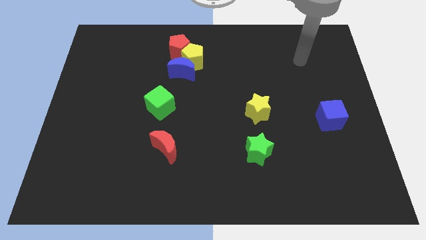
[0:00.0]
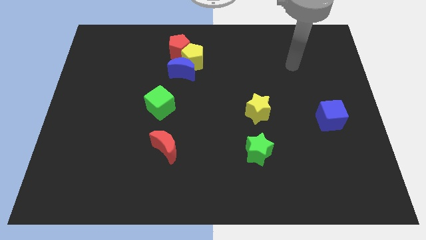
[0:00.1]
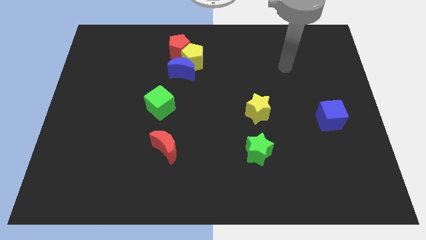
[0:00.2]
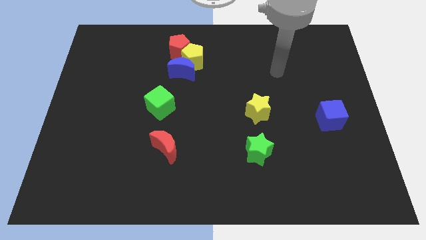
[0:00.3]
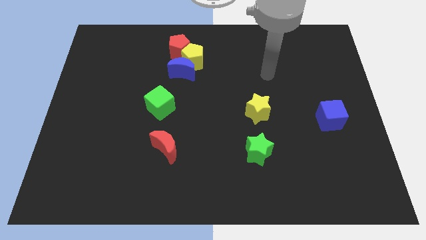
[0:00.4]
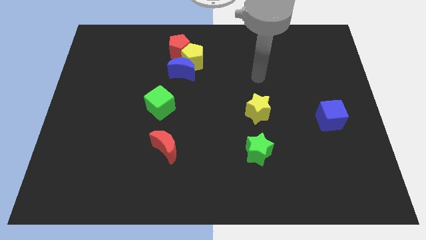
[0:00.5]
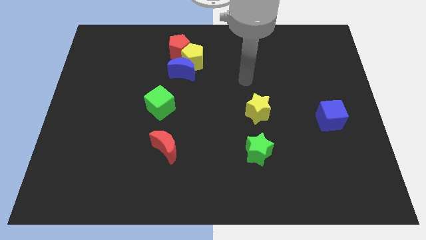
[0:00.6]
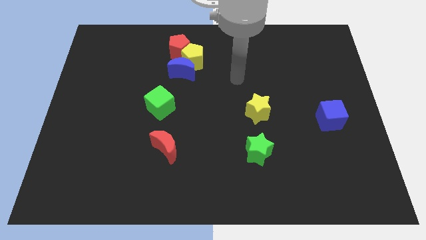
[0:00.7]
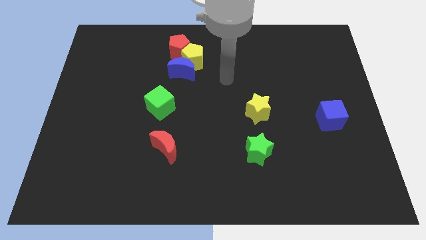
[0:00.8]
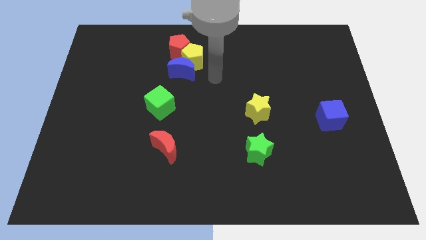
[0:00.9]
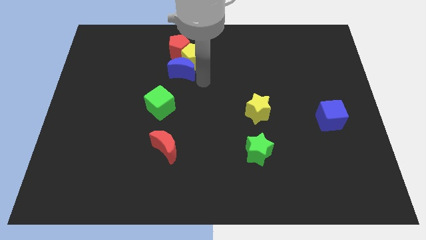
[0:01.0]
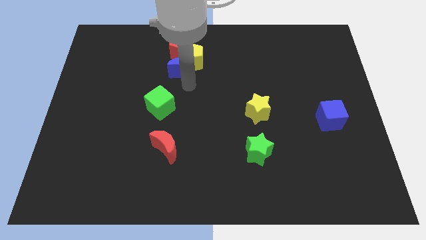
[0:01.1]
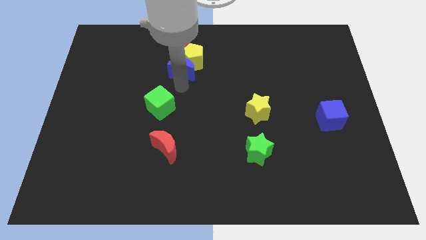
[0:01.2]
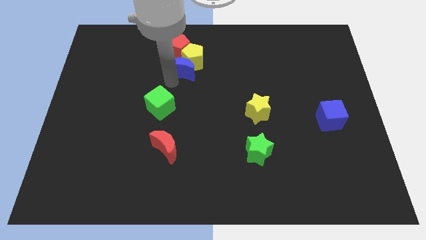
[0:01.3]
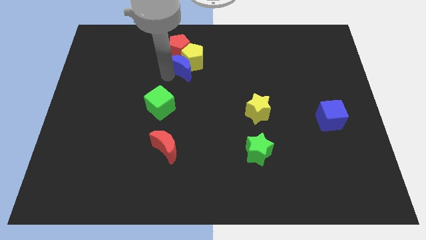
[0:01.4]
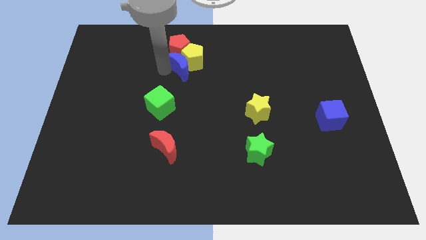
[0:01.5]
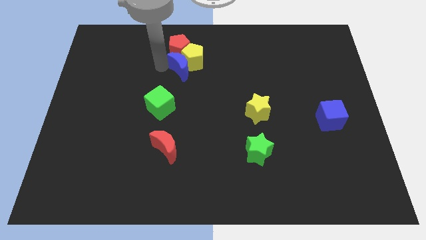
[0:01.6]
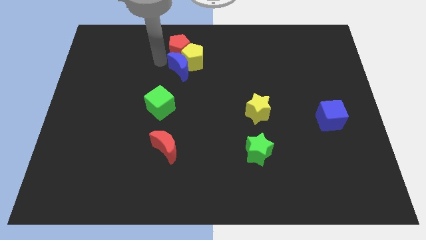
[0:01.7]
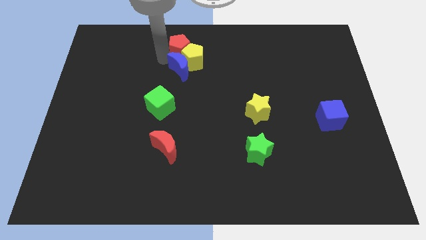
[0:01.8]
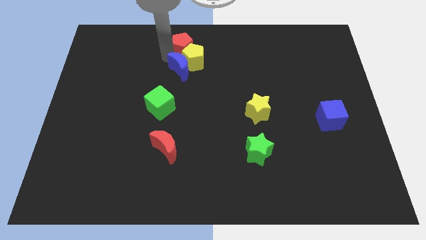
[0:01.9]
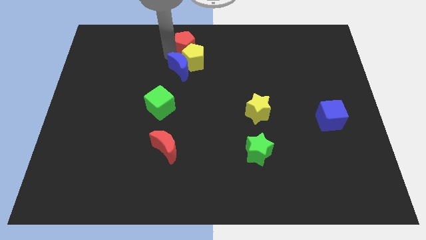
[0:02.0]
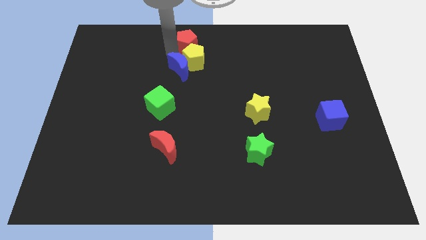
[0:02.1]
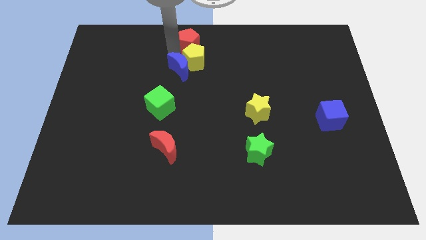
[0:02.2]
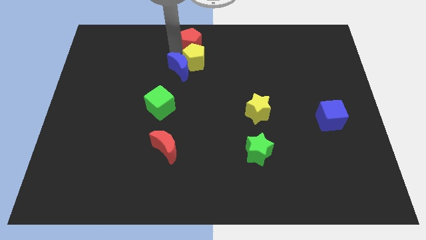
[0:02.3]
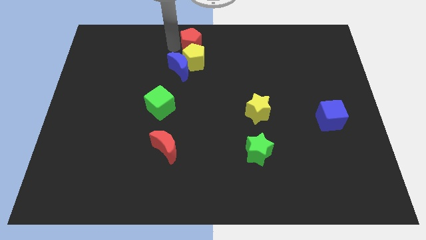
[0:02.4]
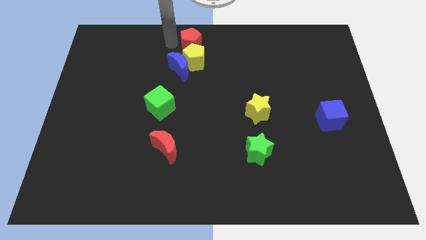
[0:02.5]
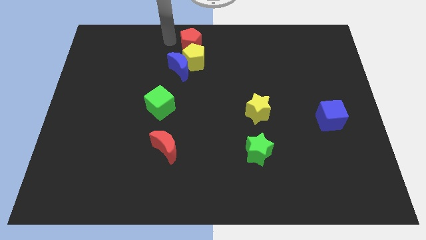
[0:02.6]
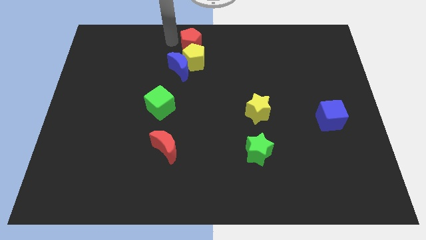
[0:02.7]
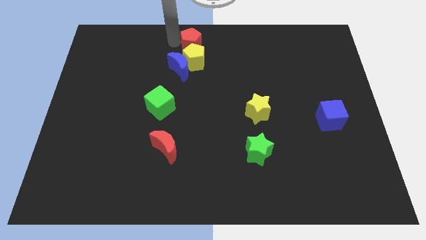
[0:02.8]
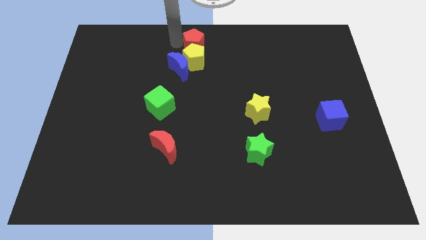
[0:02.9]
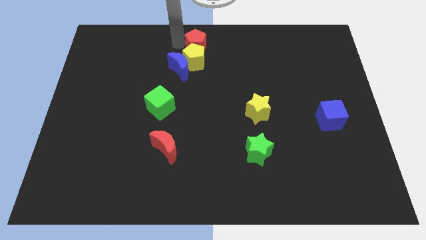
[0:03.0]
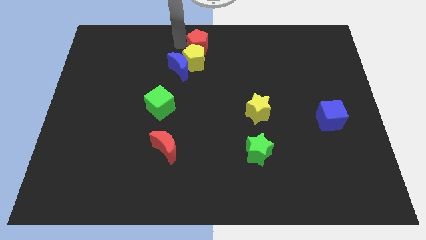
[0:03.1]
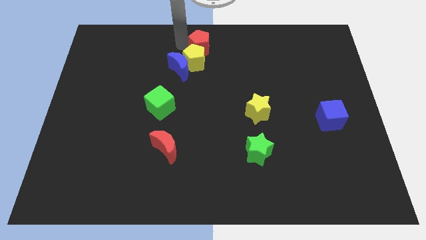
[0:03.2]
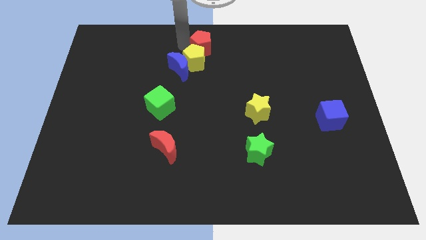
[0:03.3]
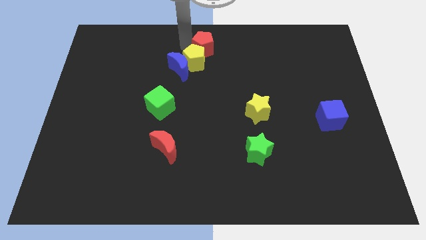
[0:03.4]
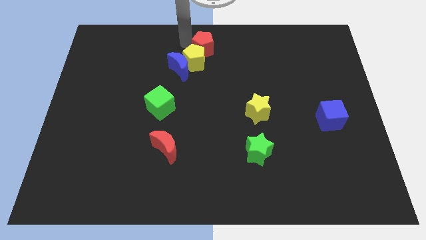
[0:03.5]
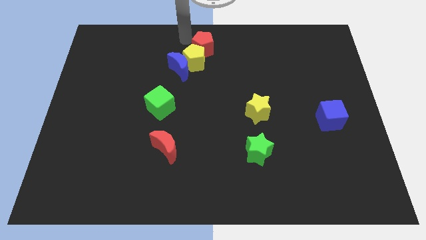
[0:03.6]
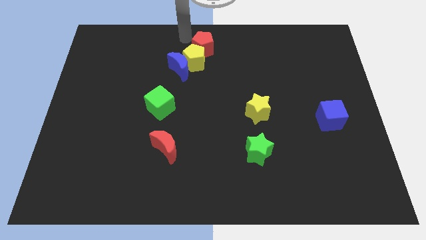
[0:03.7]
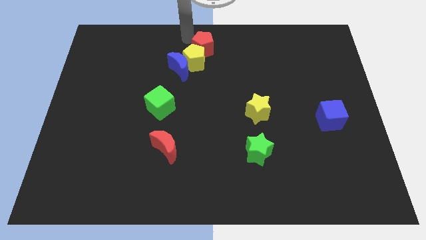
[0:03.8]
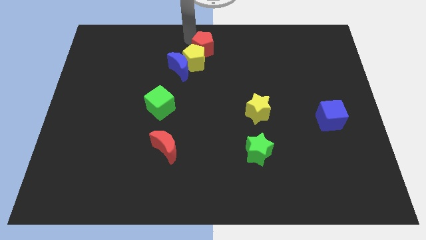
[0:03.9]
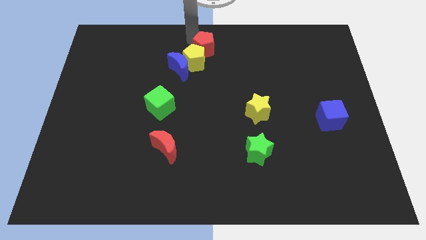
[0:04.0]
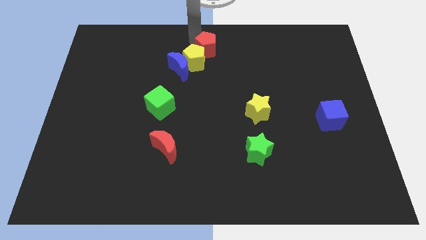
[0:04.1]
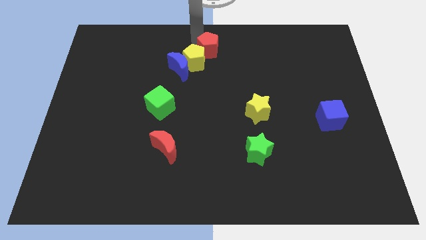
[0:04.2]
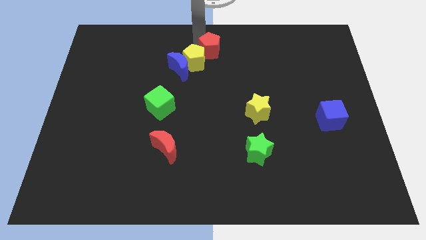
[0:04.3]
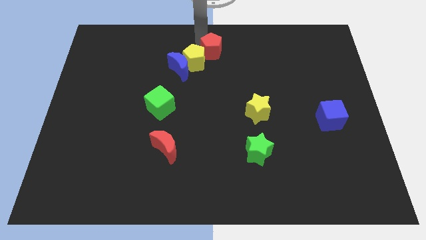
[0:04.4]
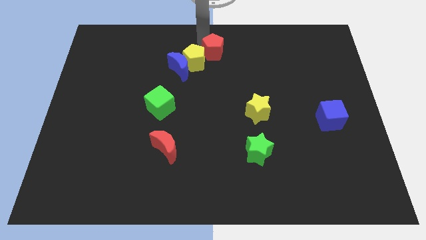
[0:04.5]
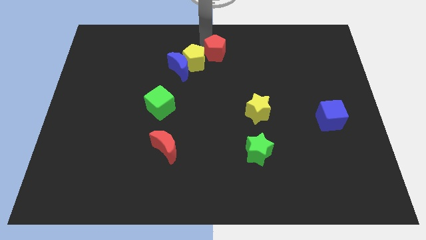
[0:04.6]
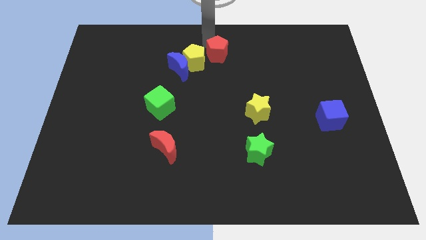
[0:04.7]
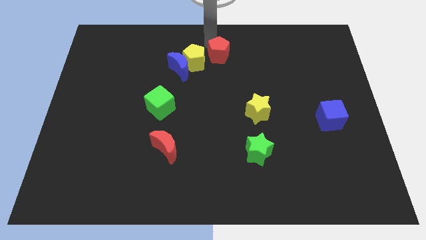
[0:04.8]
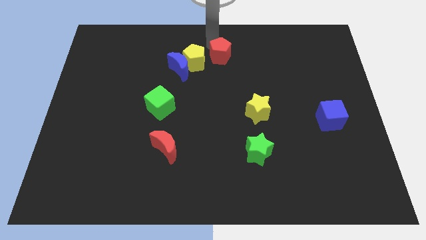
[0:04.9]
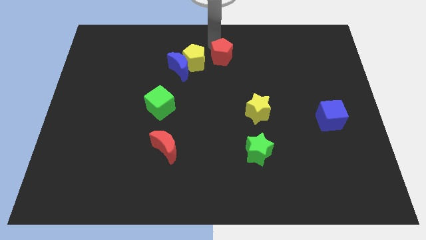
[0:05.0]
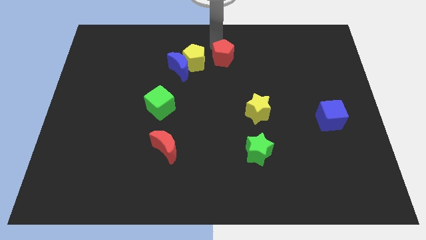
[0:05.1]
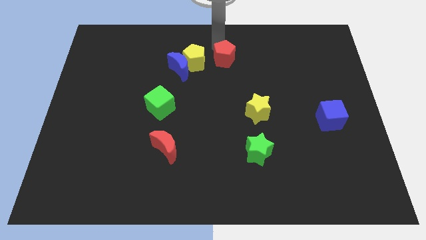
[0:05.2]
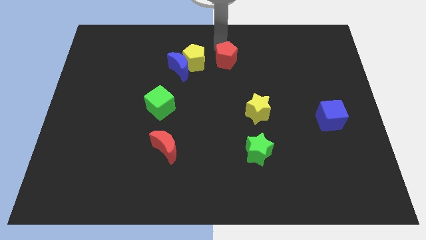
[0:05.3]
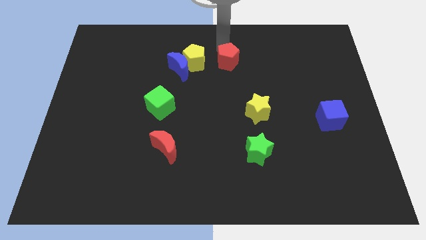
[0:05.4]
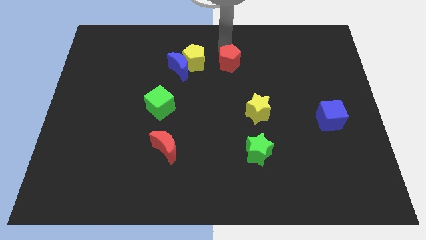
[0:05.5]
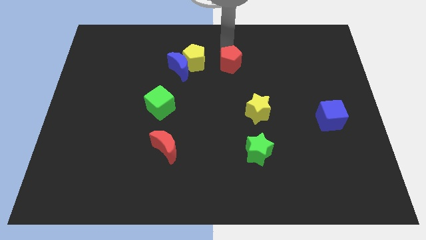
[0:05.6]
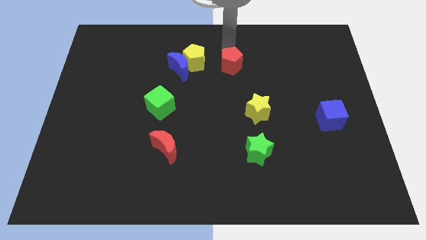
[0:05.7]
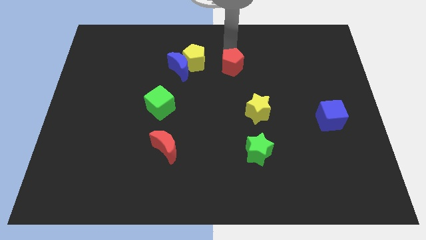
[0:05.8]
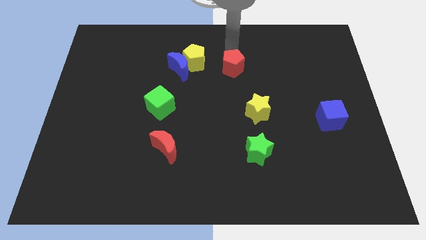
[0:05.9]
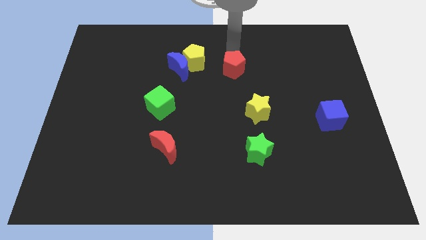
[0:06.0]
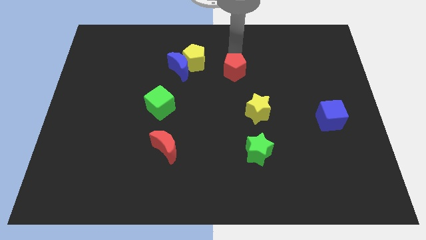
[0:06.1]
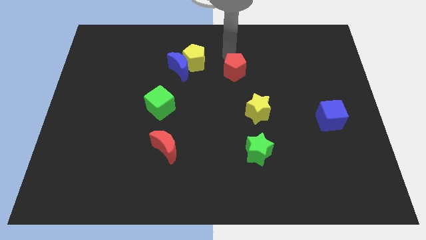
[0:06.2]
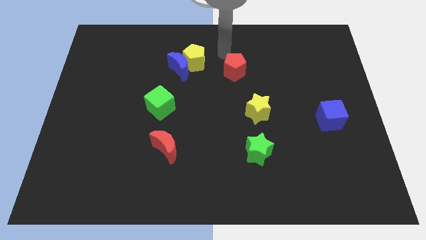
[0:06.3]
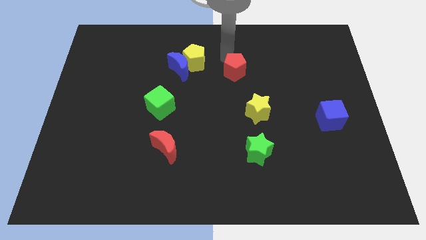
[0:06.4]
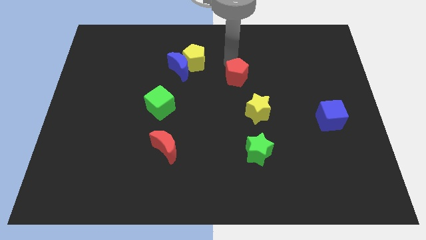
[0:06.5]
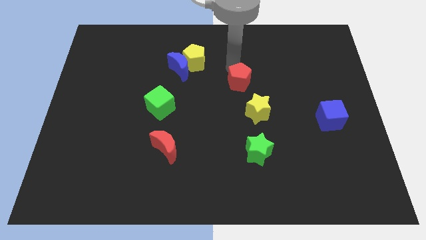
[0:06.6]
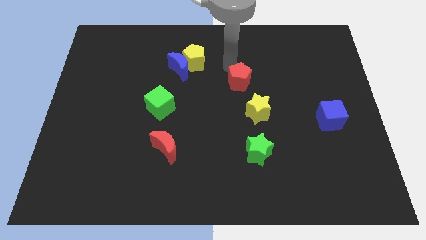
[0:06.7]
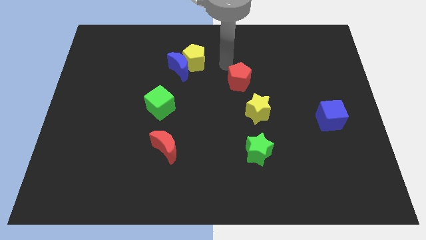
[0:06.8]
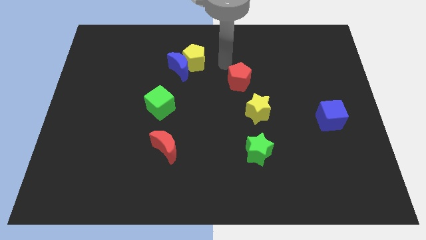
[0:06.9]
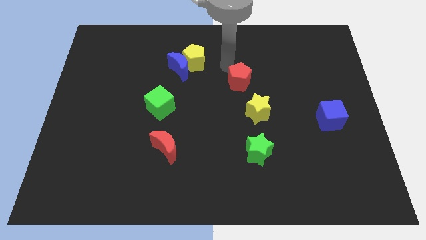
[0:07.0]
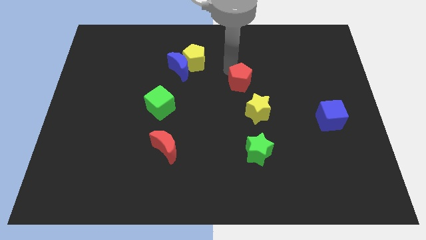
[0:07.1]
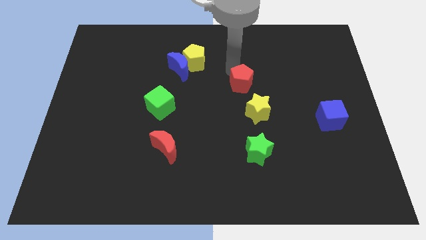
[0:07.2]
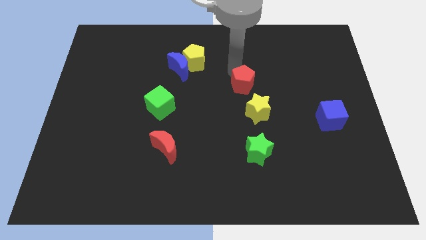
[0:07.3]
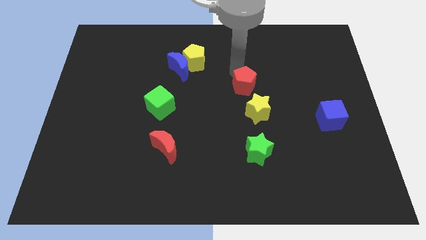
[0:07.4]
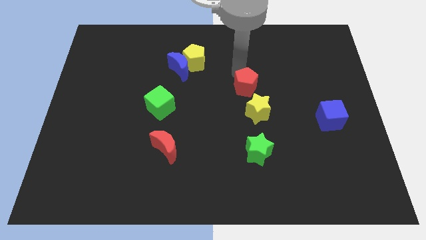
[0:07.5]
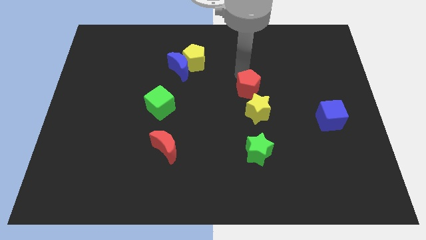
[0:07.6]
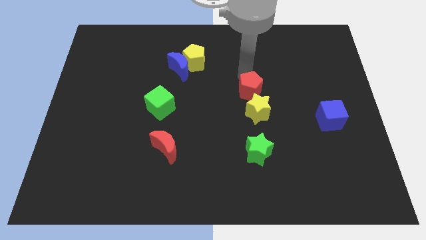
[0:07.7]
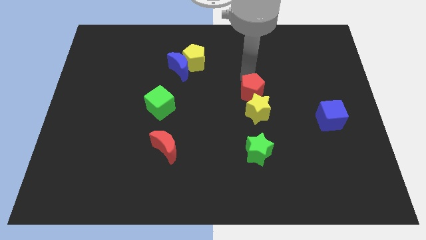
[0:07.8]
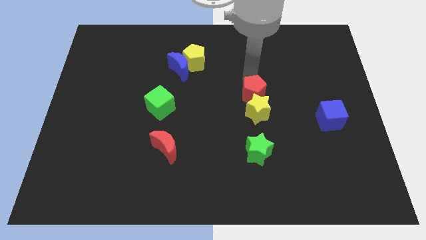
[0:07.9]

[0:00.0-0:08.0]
move the red pentagon next to the yellow star
